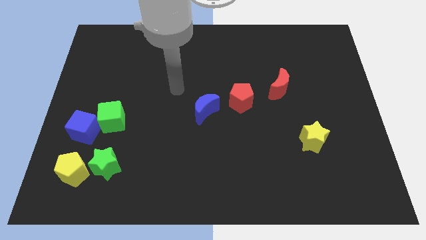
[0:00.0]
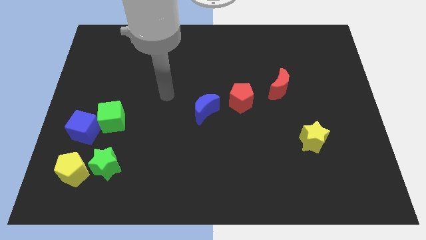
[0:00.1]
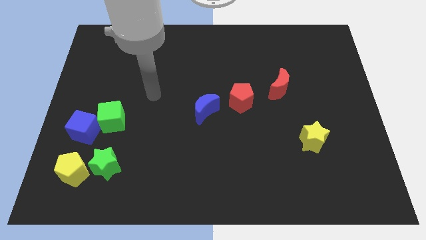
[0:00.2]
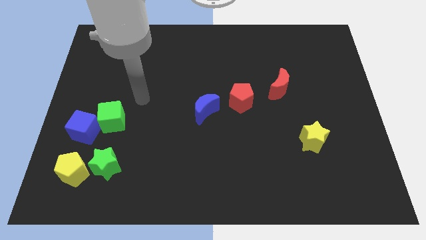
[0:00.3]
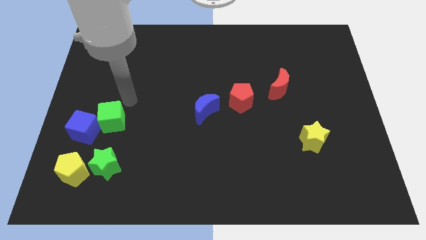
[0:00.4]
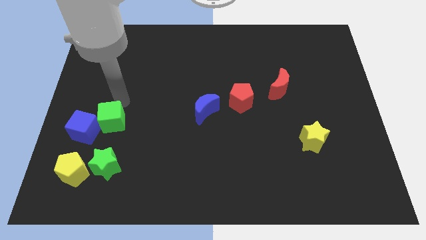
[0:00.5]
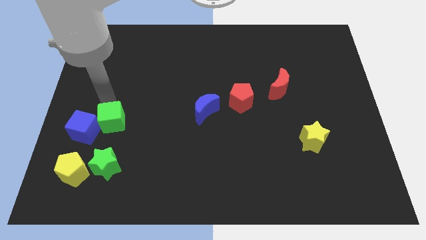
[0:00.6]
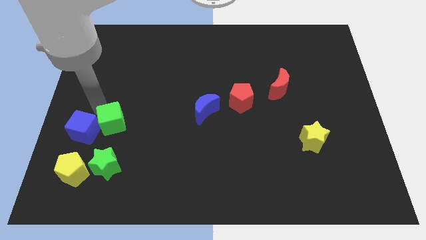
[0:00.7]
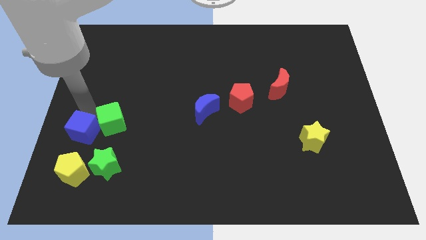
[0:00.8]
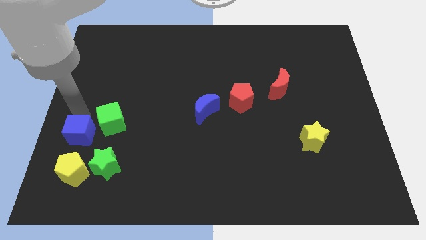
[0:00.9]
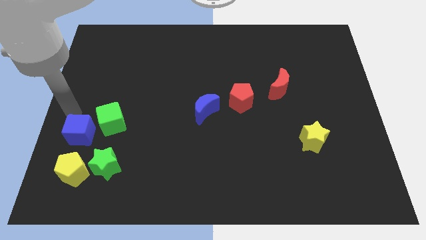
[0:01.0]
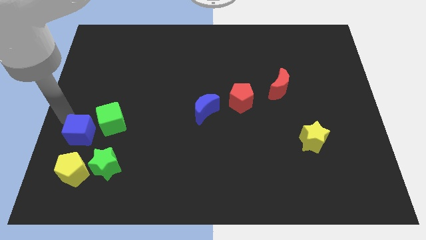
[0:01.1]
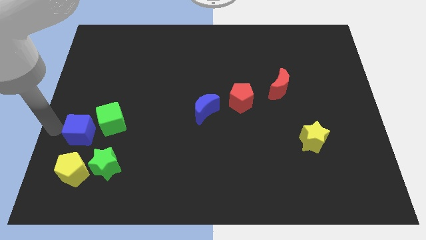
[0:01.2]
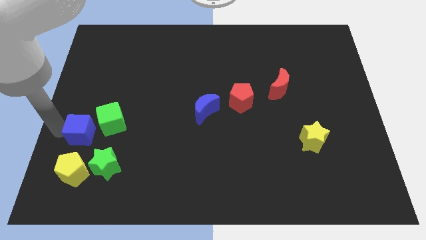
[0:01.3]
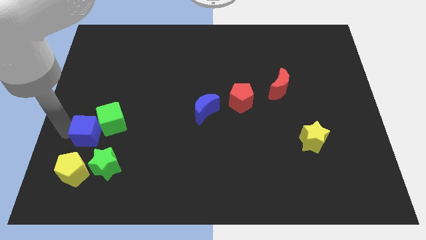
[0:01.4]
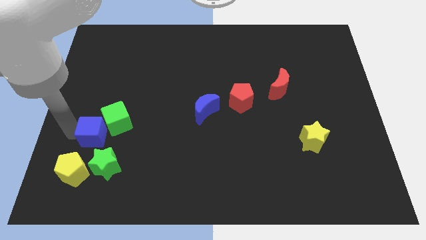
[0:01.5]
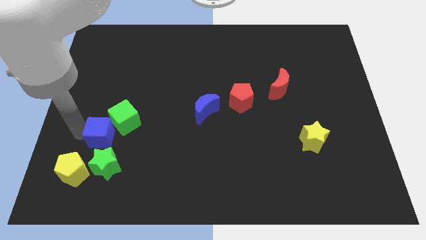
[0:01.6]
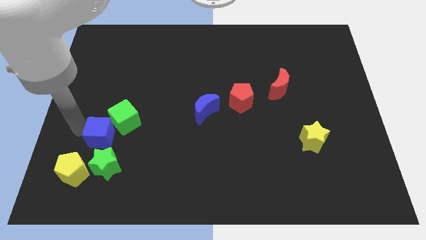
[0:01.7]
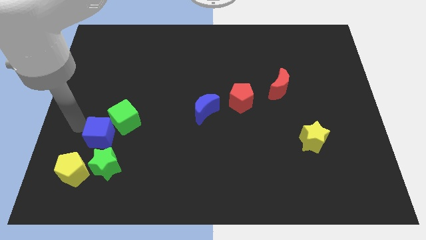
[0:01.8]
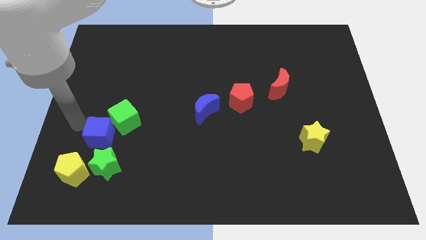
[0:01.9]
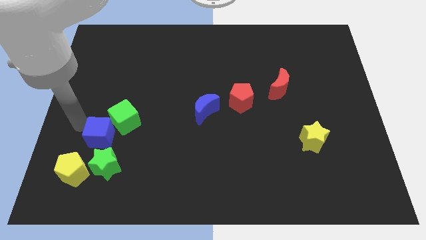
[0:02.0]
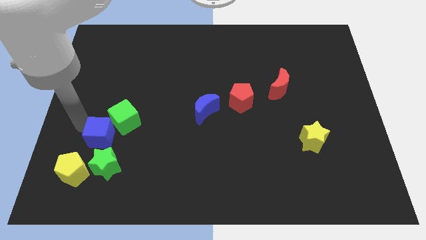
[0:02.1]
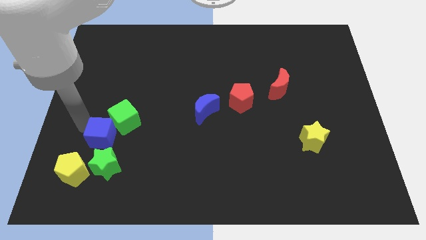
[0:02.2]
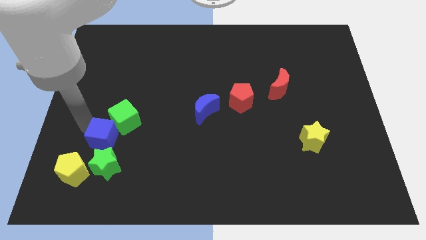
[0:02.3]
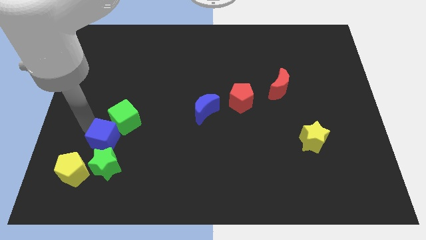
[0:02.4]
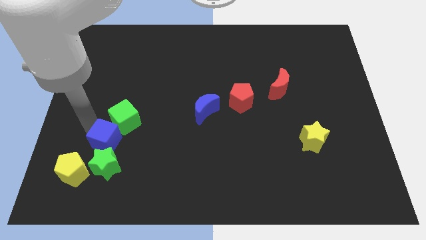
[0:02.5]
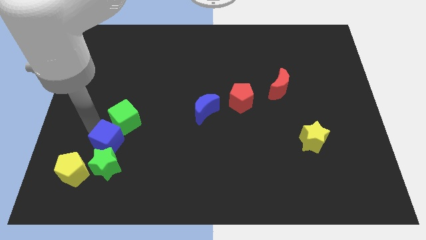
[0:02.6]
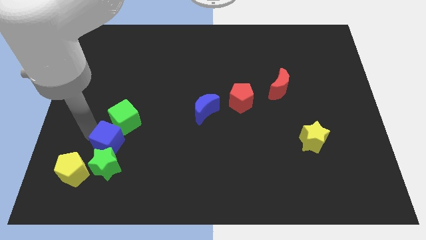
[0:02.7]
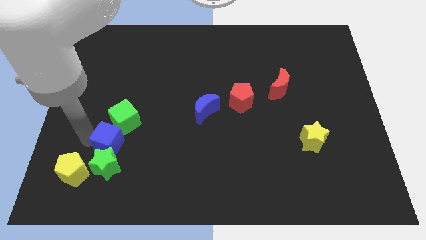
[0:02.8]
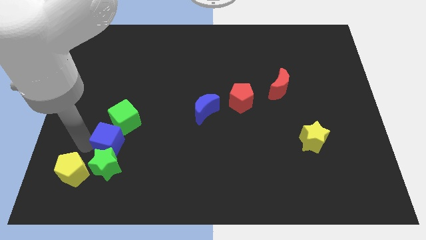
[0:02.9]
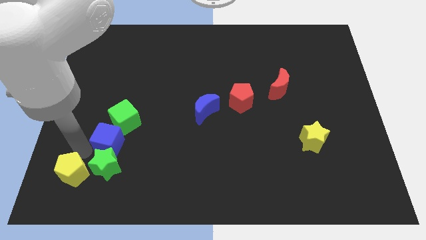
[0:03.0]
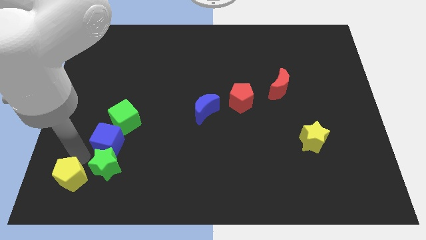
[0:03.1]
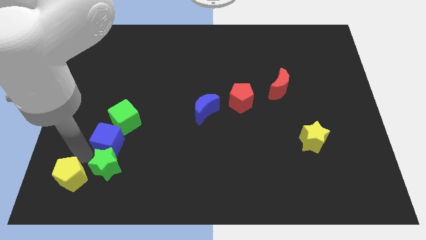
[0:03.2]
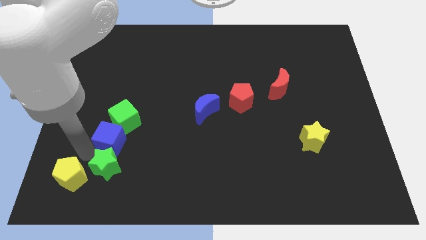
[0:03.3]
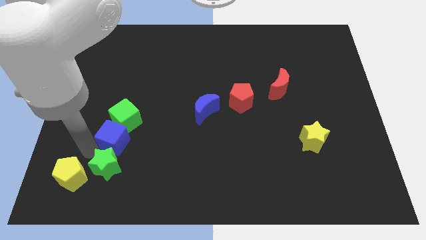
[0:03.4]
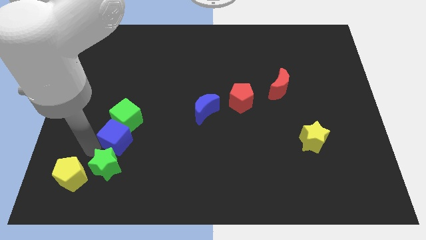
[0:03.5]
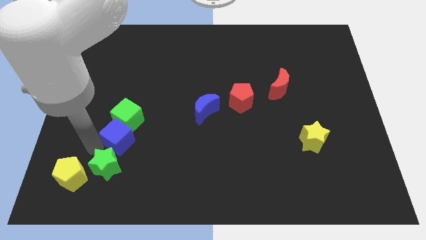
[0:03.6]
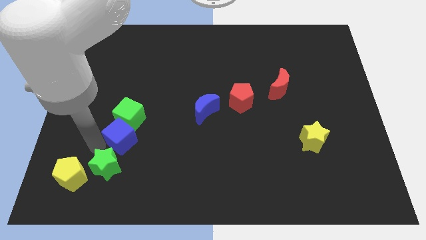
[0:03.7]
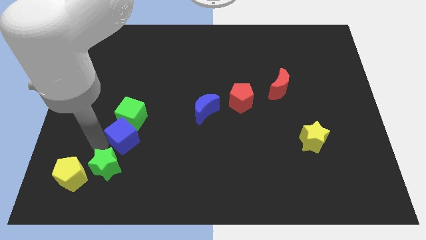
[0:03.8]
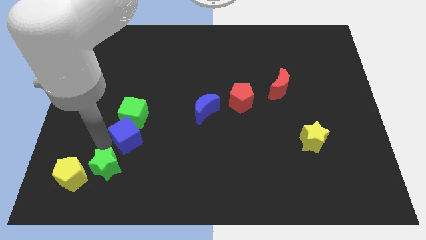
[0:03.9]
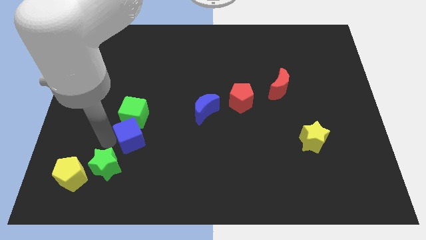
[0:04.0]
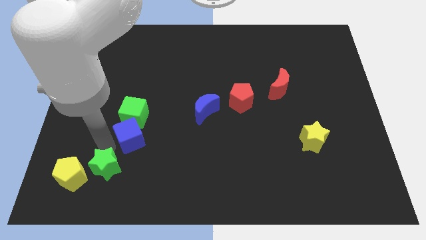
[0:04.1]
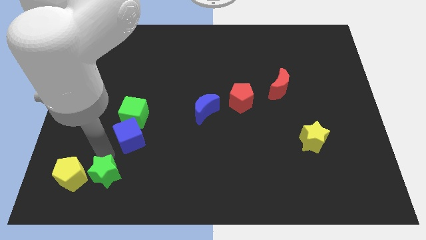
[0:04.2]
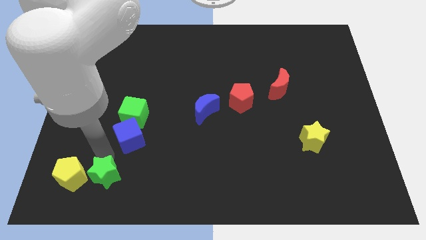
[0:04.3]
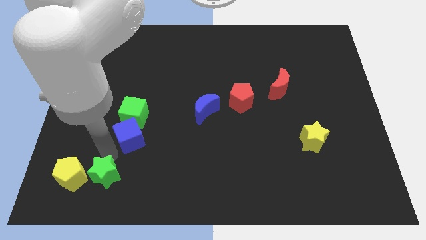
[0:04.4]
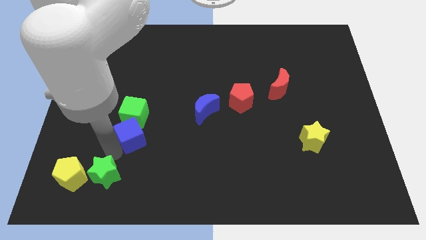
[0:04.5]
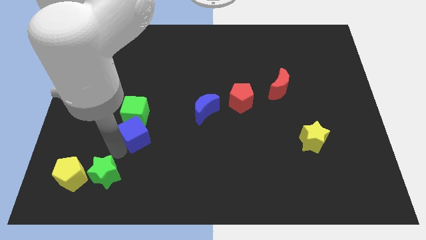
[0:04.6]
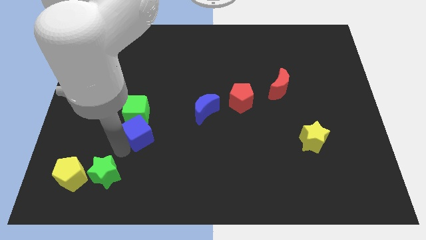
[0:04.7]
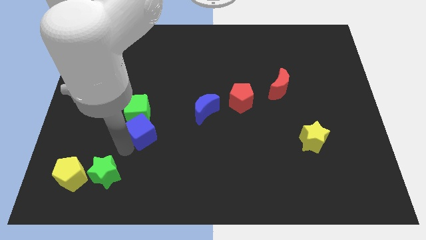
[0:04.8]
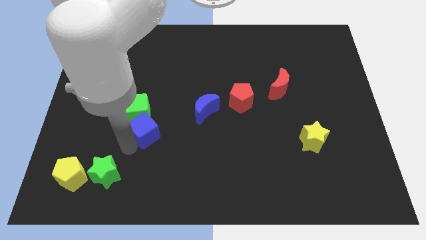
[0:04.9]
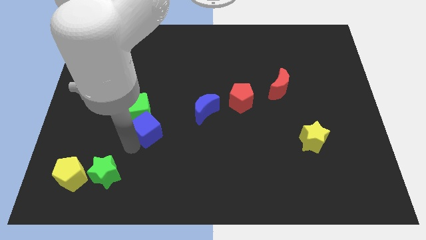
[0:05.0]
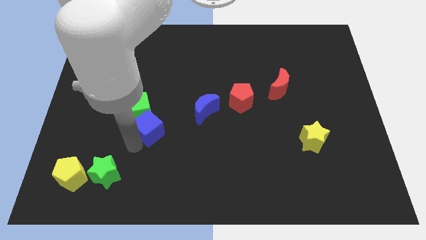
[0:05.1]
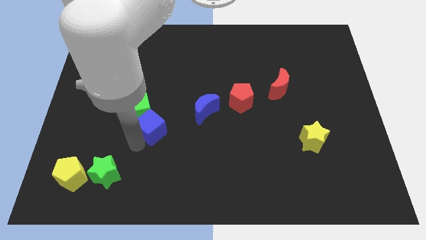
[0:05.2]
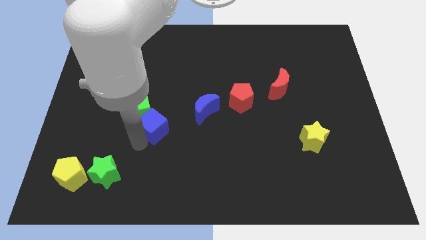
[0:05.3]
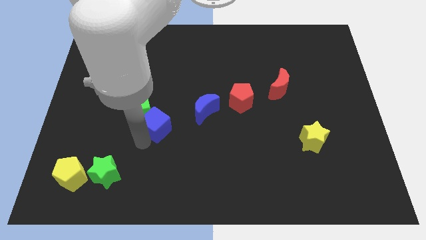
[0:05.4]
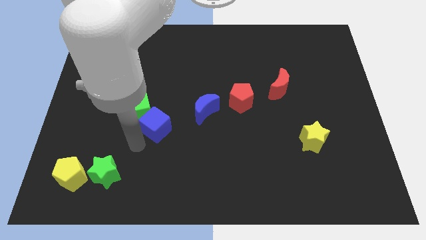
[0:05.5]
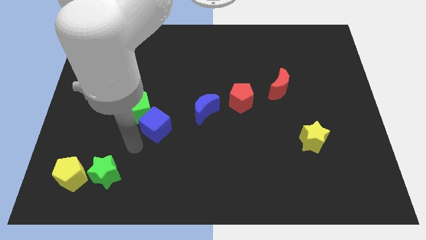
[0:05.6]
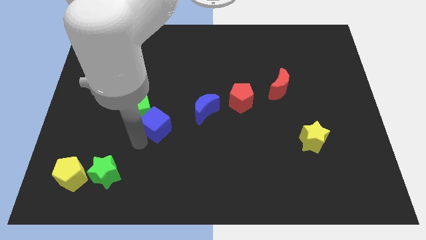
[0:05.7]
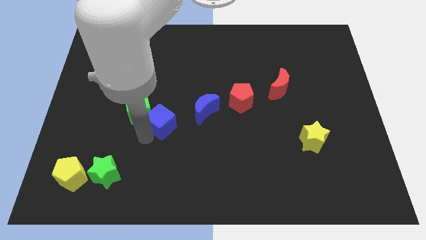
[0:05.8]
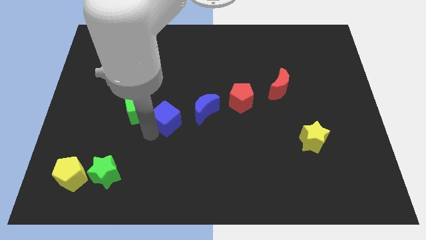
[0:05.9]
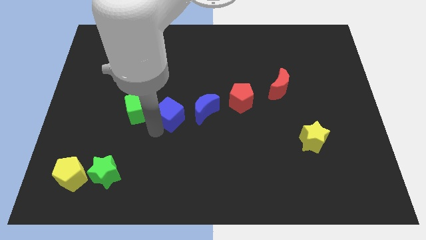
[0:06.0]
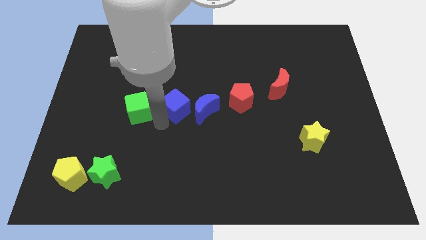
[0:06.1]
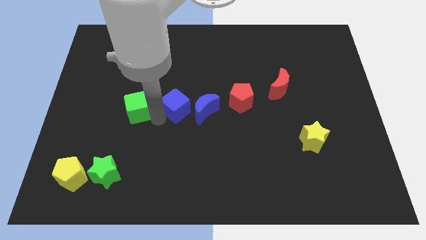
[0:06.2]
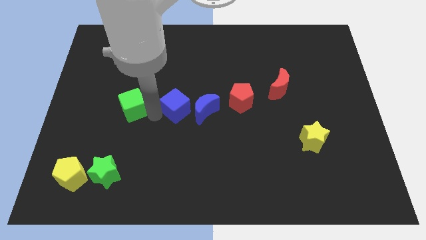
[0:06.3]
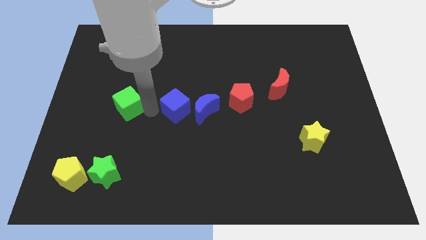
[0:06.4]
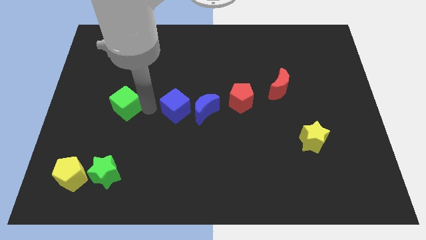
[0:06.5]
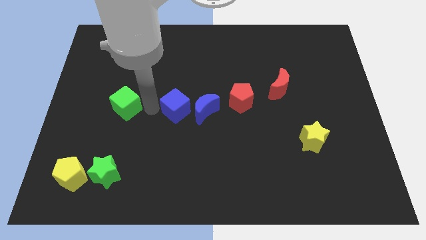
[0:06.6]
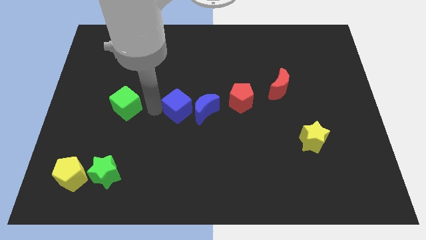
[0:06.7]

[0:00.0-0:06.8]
put the blue cube to the blue moon
